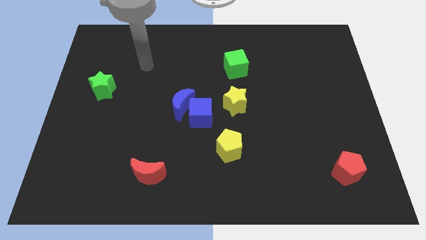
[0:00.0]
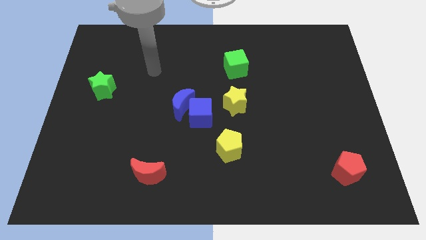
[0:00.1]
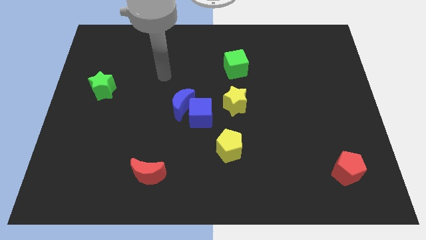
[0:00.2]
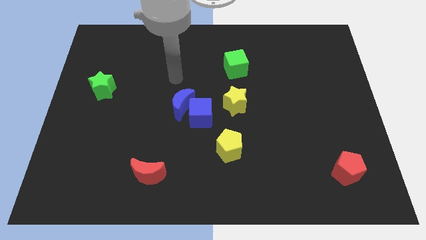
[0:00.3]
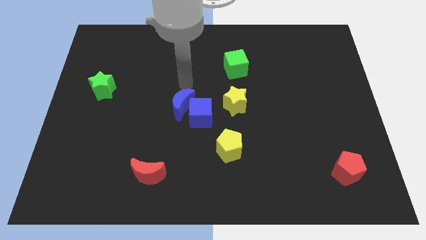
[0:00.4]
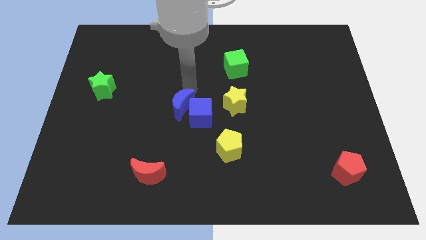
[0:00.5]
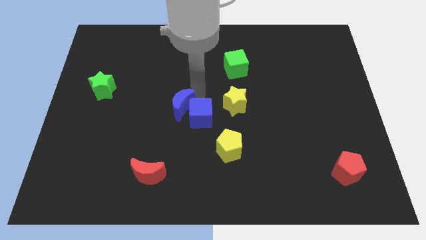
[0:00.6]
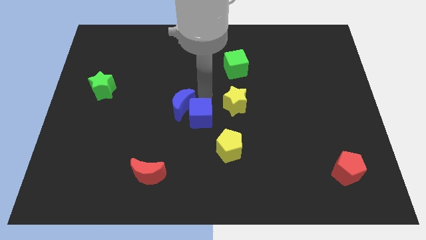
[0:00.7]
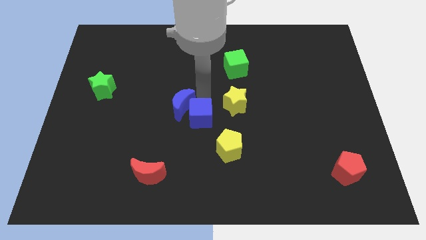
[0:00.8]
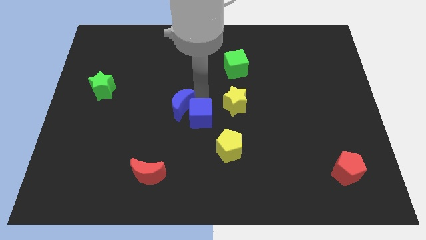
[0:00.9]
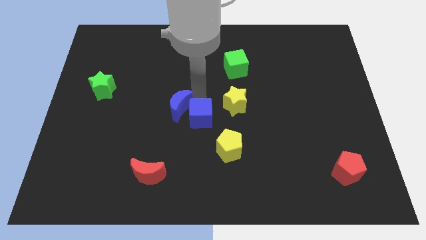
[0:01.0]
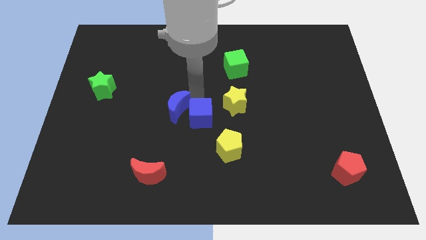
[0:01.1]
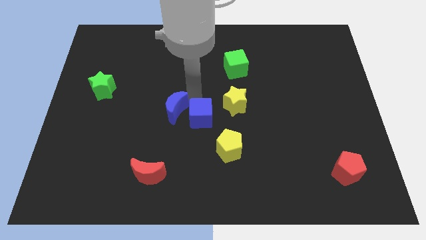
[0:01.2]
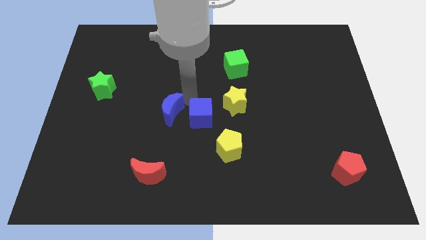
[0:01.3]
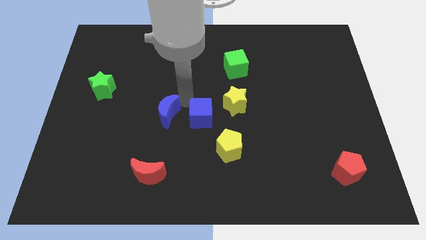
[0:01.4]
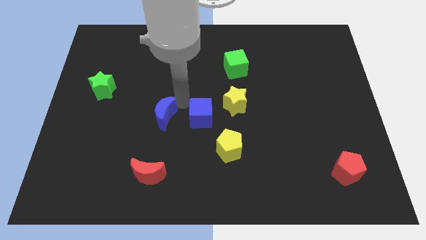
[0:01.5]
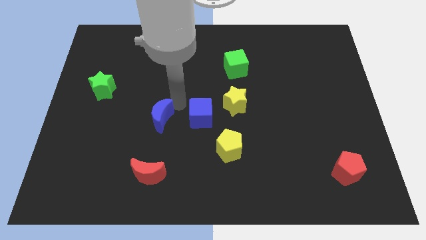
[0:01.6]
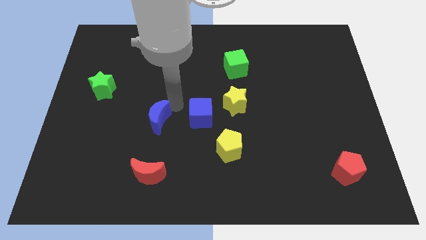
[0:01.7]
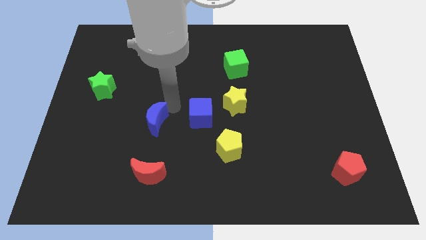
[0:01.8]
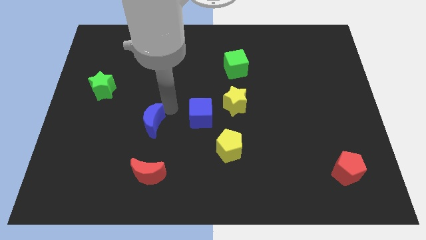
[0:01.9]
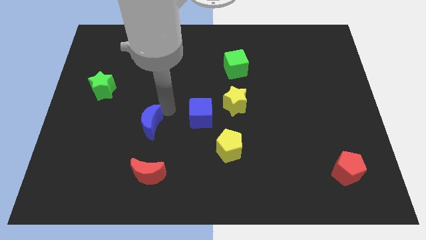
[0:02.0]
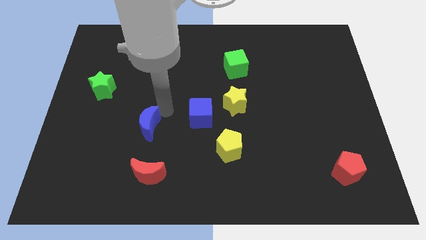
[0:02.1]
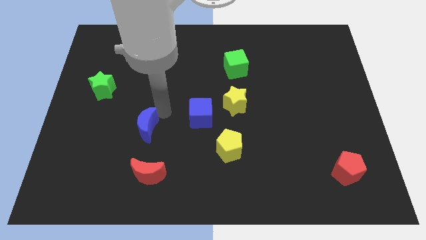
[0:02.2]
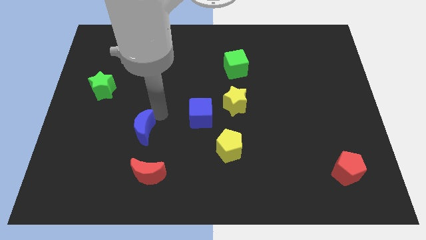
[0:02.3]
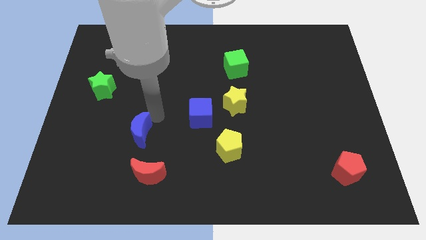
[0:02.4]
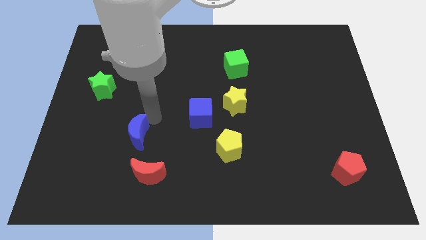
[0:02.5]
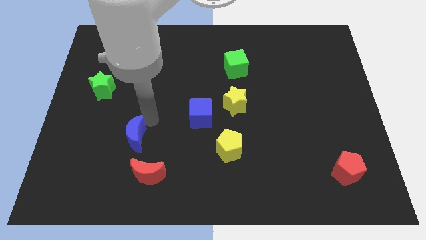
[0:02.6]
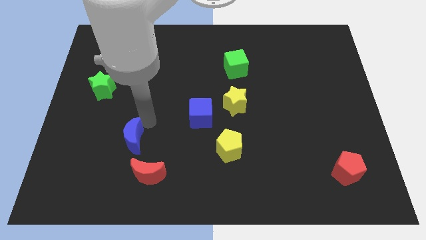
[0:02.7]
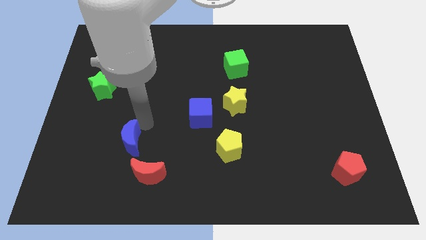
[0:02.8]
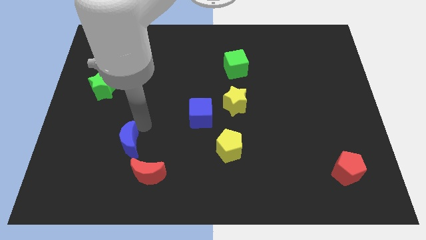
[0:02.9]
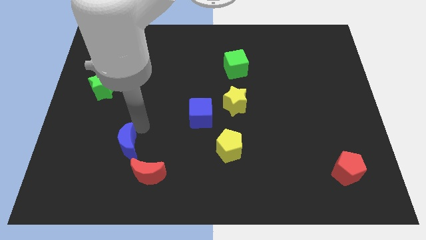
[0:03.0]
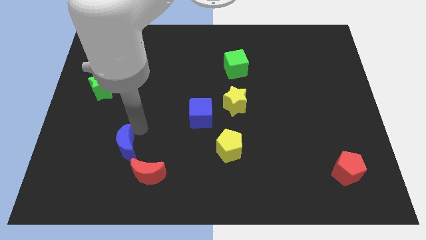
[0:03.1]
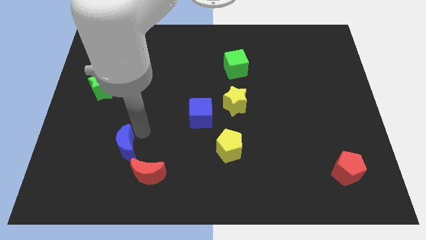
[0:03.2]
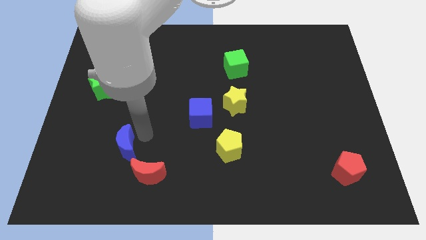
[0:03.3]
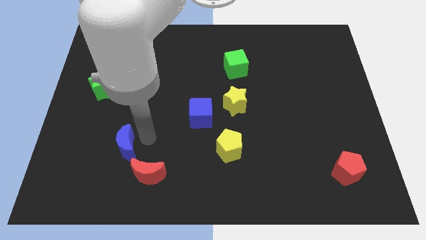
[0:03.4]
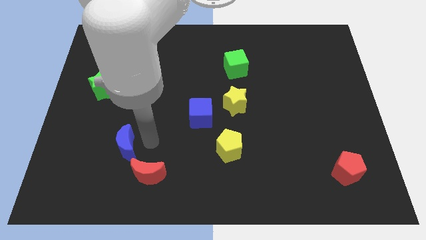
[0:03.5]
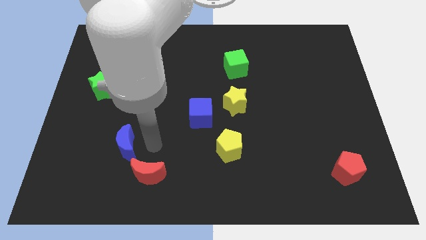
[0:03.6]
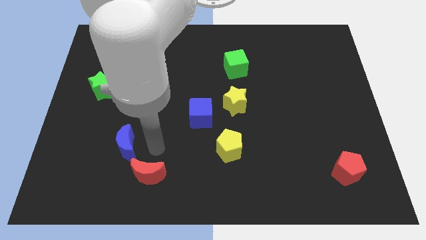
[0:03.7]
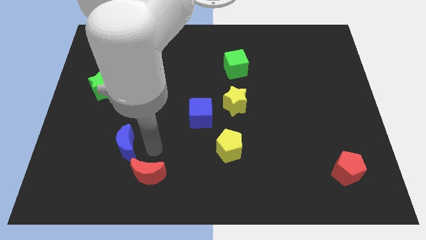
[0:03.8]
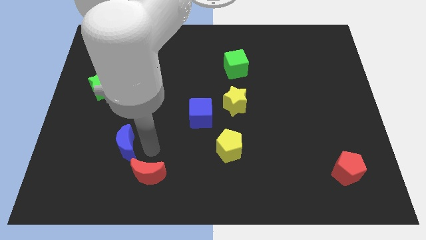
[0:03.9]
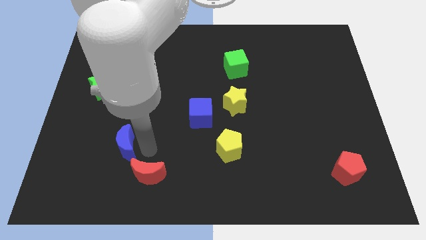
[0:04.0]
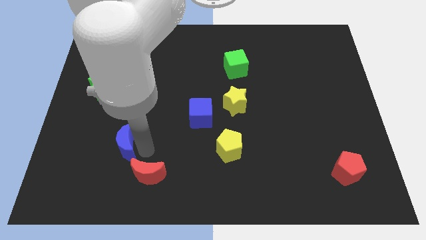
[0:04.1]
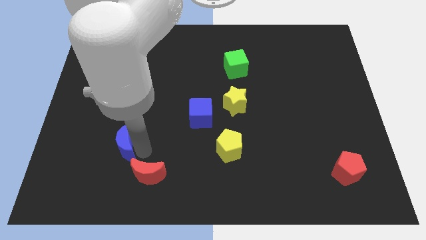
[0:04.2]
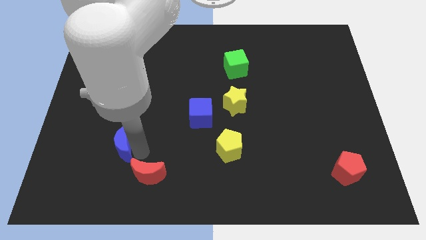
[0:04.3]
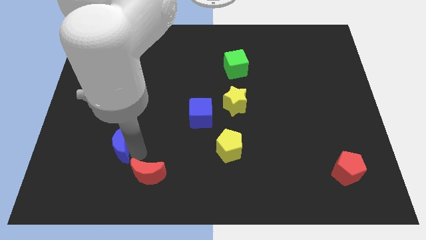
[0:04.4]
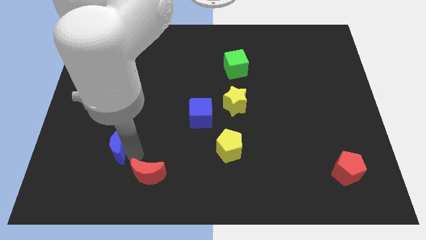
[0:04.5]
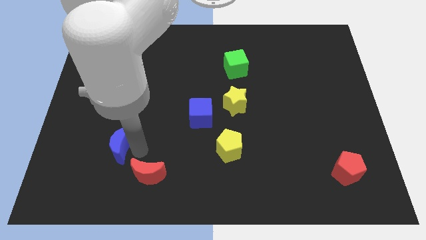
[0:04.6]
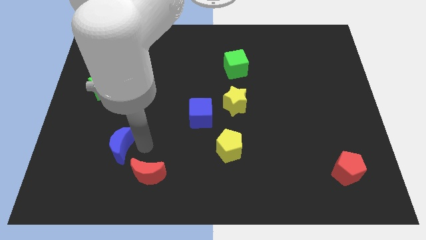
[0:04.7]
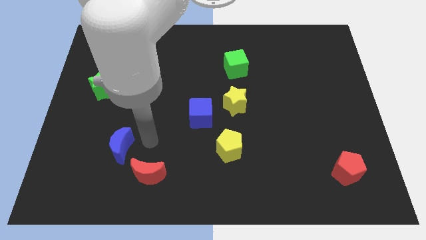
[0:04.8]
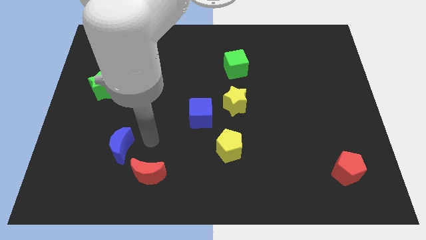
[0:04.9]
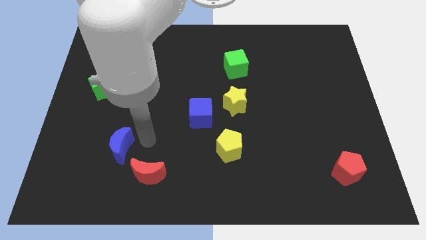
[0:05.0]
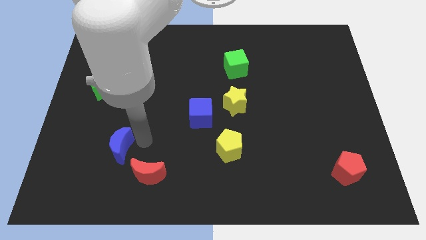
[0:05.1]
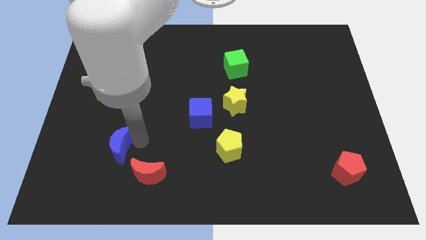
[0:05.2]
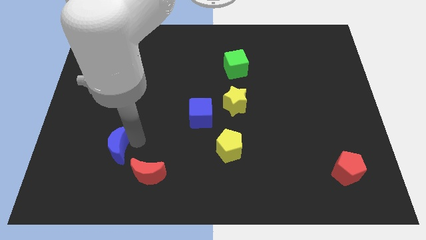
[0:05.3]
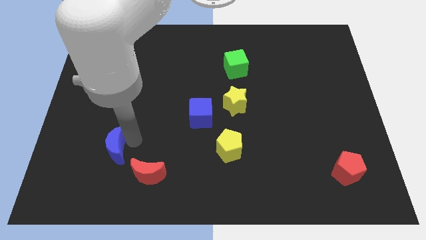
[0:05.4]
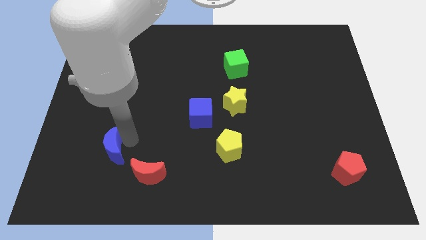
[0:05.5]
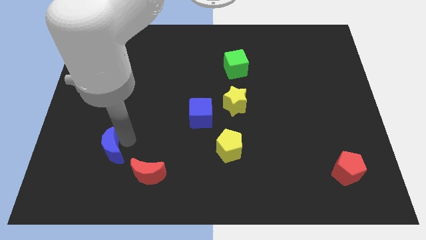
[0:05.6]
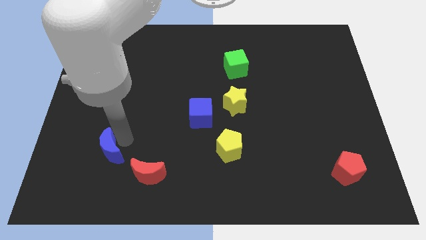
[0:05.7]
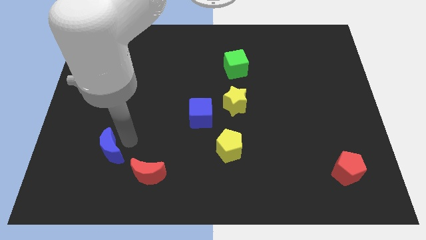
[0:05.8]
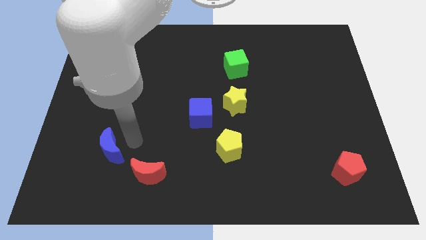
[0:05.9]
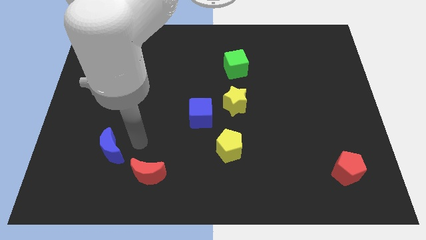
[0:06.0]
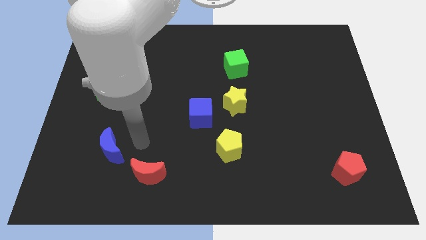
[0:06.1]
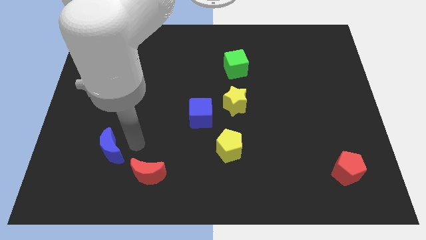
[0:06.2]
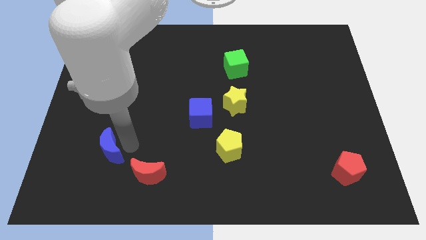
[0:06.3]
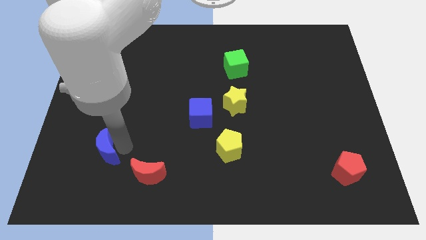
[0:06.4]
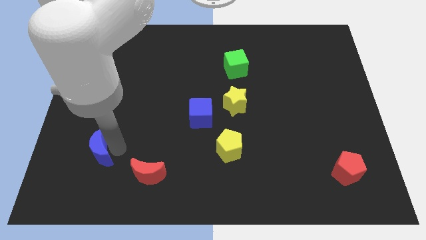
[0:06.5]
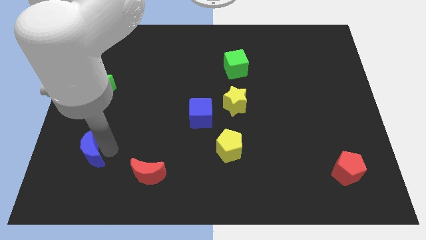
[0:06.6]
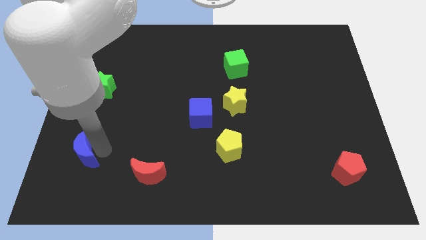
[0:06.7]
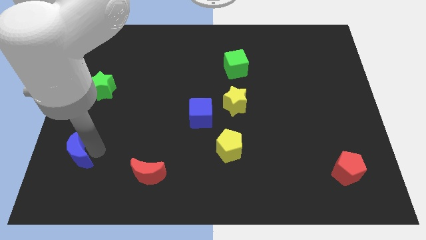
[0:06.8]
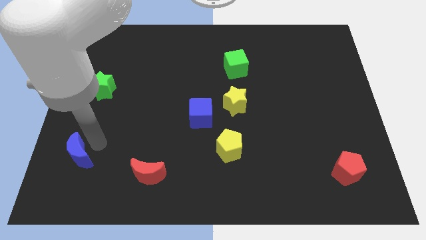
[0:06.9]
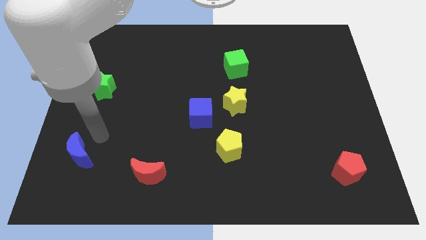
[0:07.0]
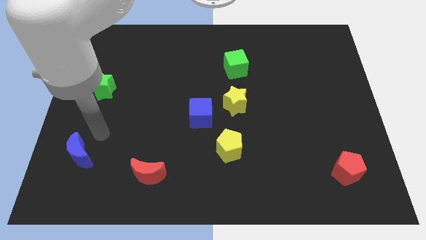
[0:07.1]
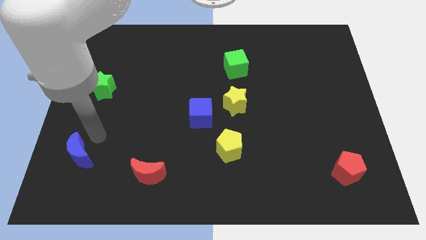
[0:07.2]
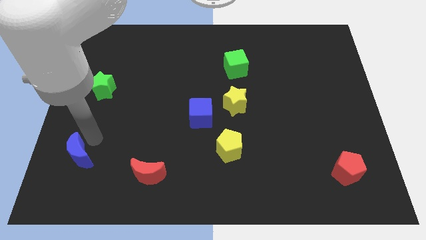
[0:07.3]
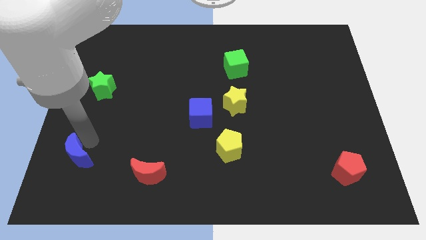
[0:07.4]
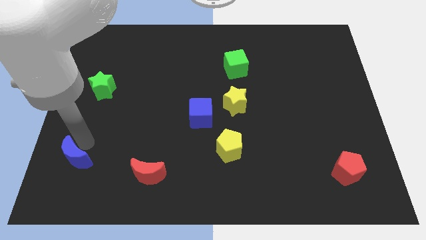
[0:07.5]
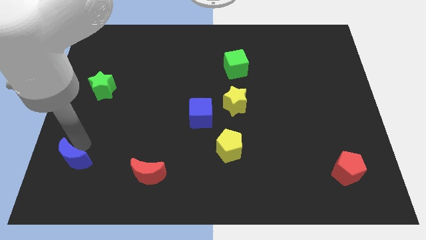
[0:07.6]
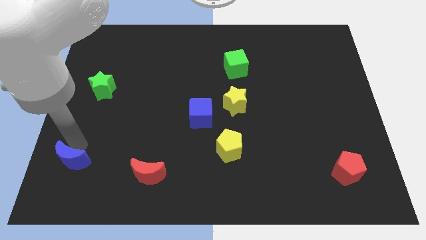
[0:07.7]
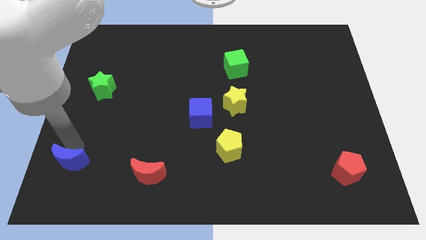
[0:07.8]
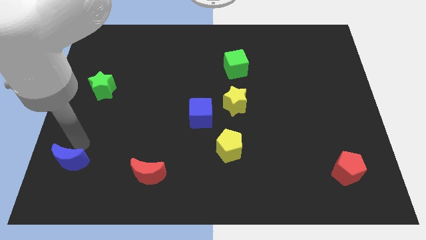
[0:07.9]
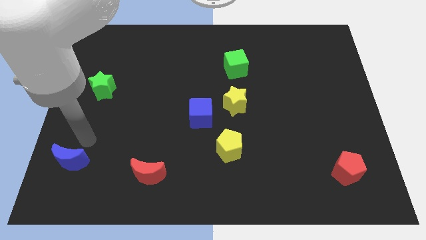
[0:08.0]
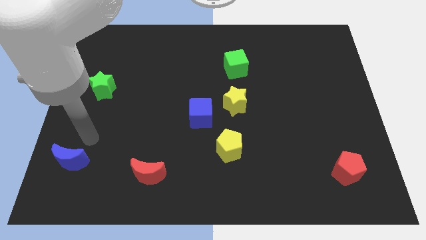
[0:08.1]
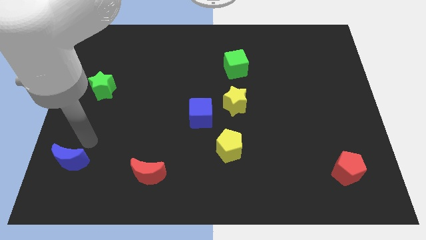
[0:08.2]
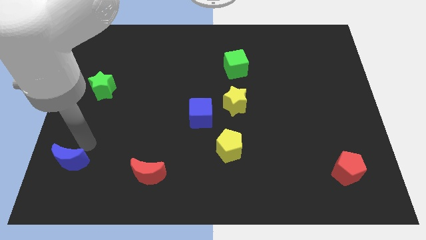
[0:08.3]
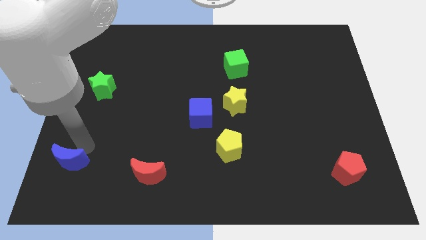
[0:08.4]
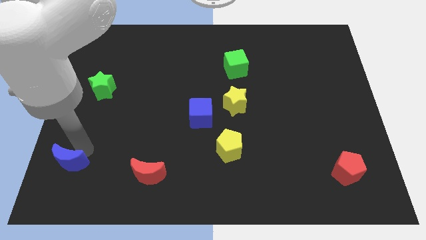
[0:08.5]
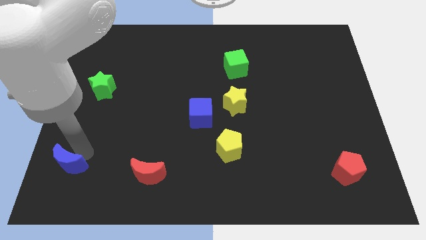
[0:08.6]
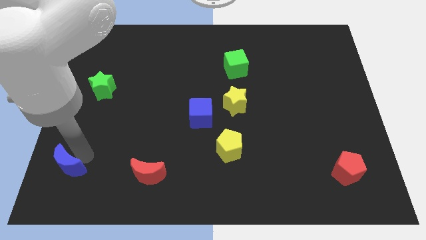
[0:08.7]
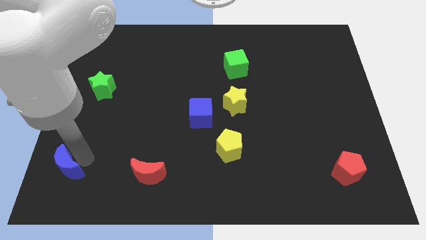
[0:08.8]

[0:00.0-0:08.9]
push the blue moon to the bottom left corner
